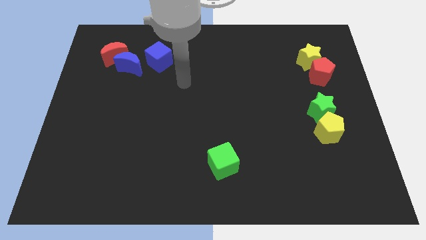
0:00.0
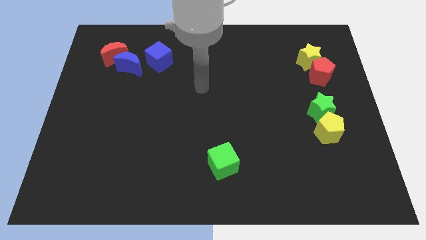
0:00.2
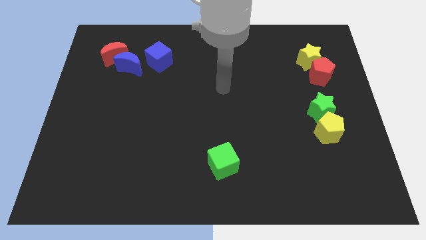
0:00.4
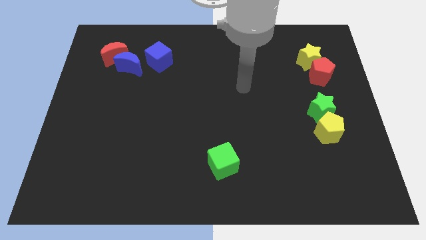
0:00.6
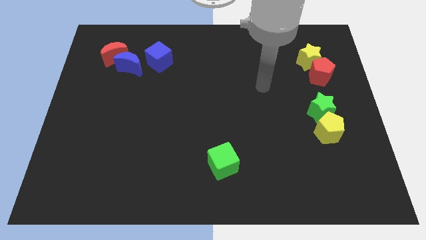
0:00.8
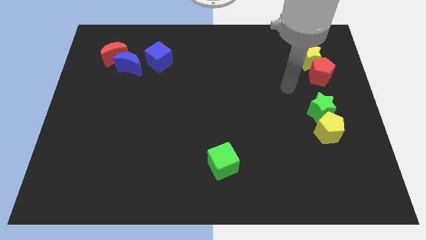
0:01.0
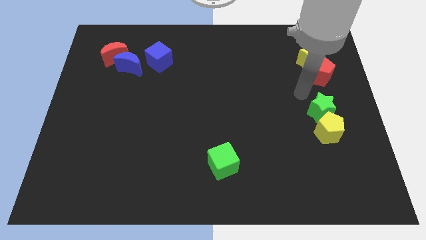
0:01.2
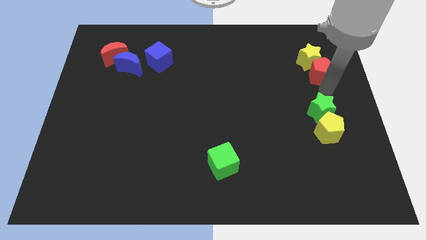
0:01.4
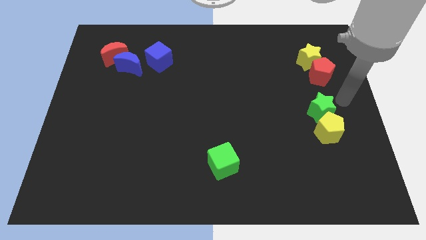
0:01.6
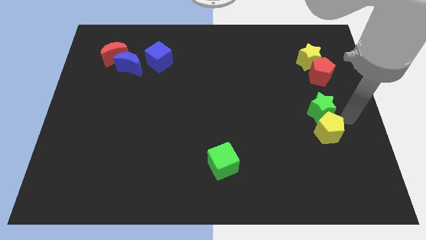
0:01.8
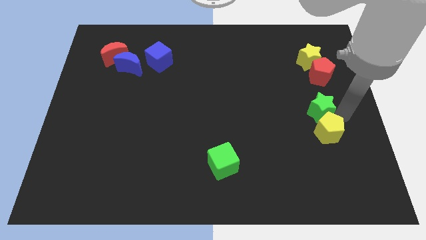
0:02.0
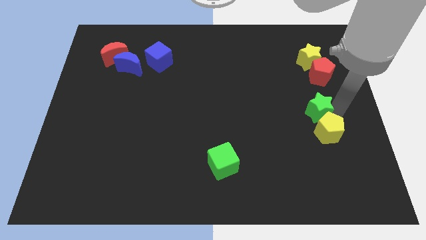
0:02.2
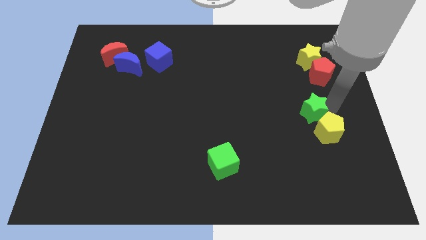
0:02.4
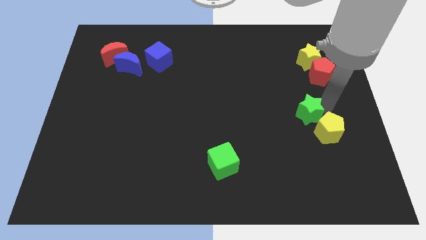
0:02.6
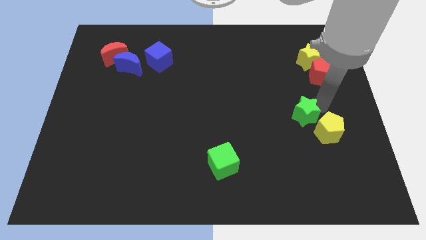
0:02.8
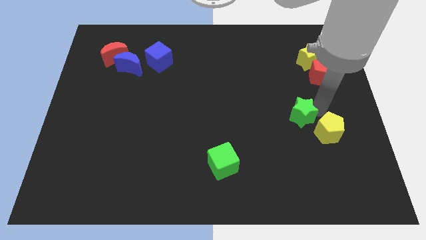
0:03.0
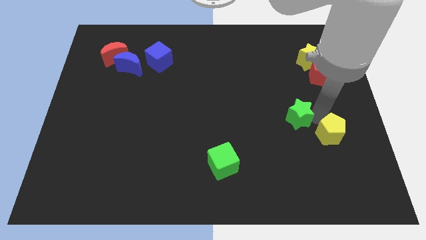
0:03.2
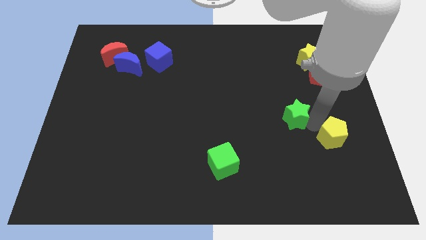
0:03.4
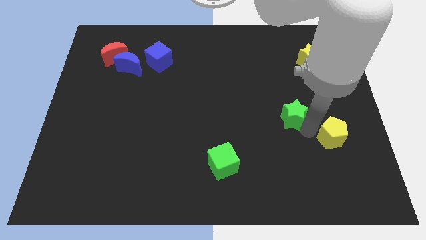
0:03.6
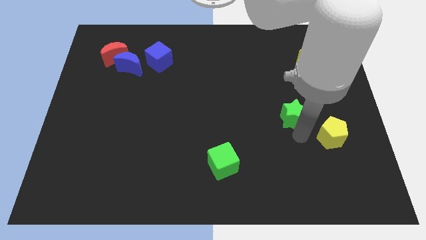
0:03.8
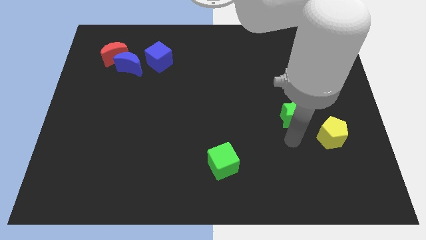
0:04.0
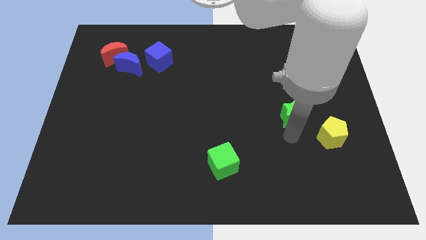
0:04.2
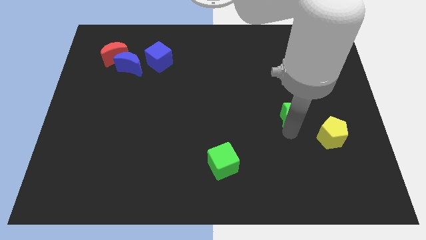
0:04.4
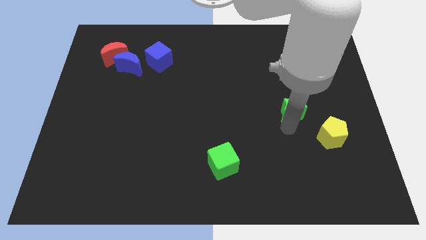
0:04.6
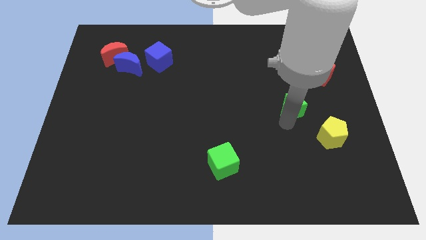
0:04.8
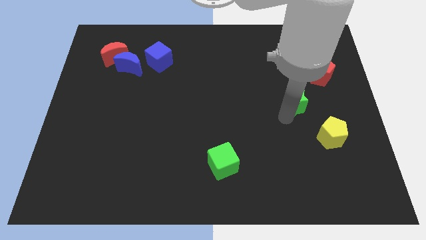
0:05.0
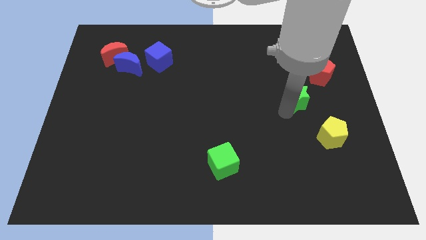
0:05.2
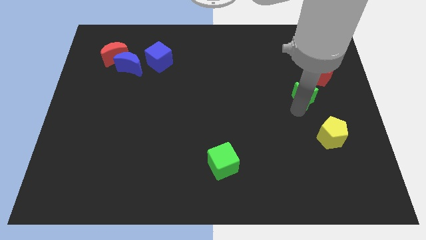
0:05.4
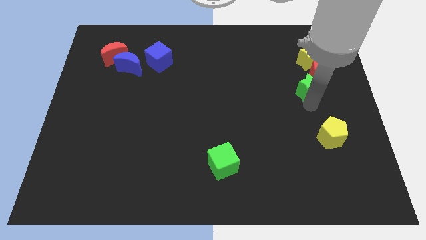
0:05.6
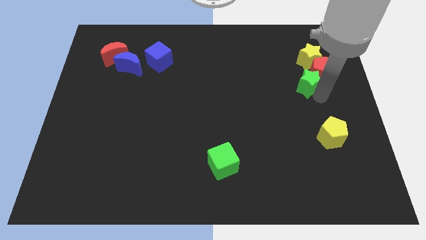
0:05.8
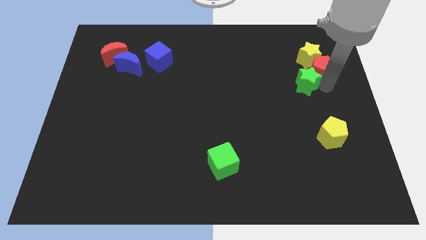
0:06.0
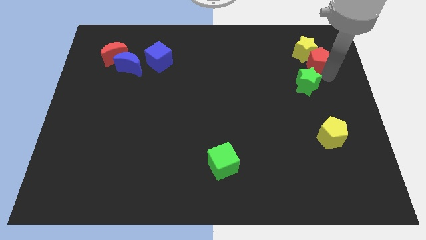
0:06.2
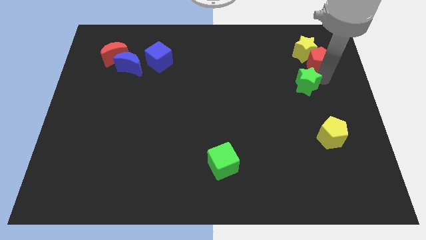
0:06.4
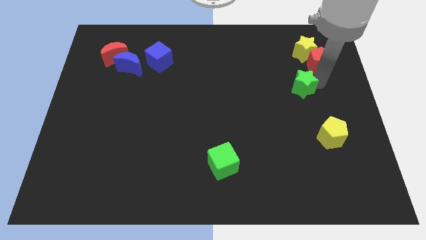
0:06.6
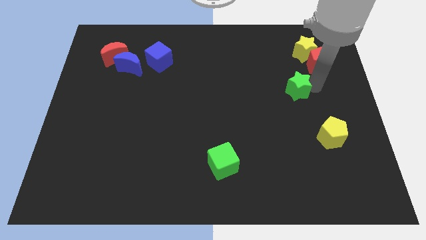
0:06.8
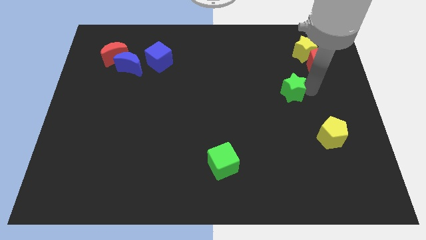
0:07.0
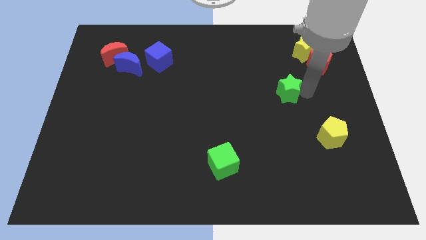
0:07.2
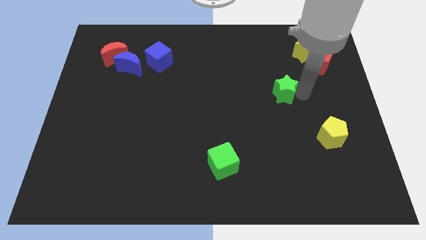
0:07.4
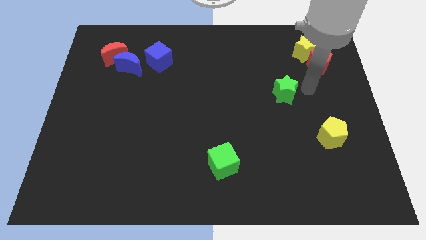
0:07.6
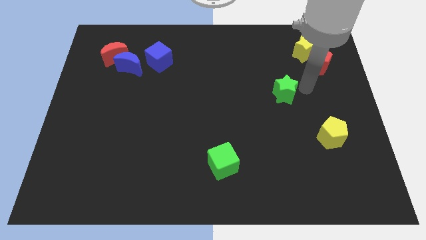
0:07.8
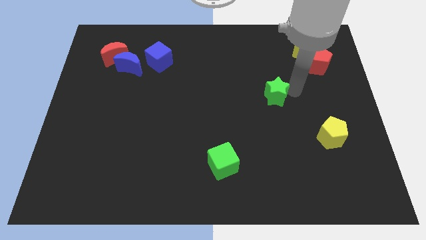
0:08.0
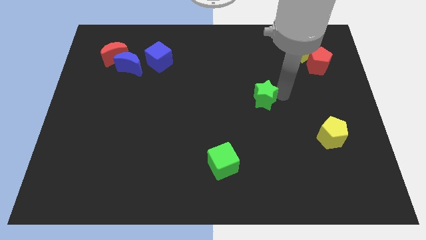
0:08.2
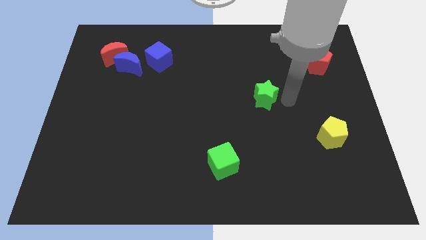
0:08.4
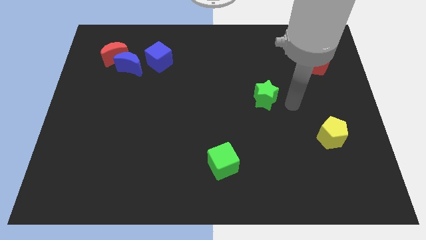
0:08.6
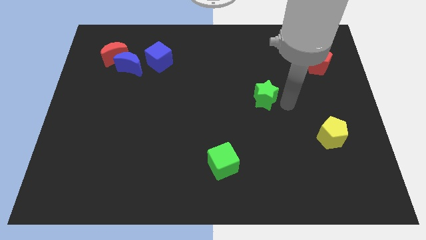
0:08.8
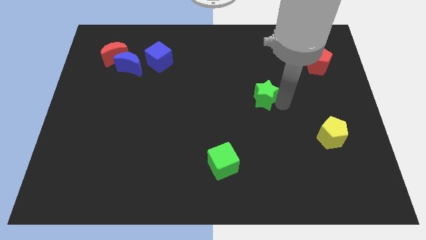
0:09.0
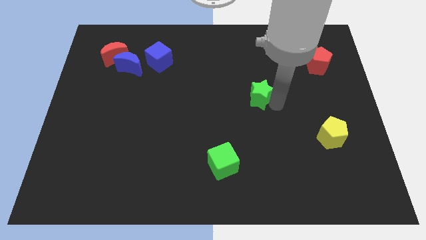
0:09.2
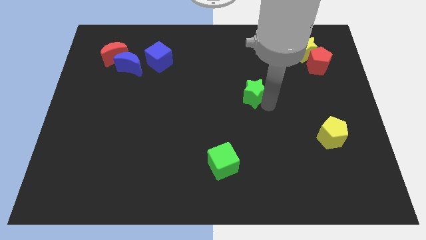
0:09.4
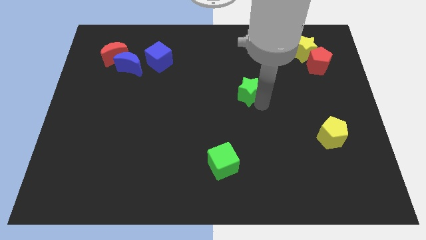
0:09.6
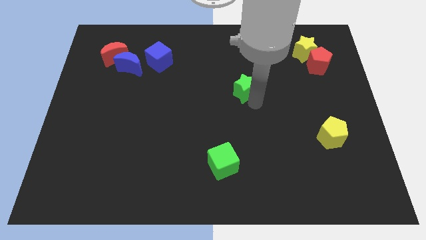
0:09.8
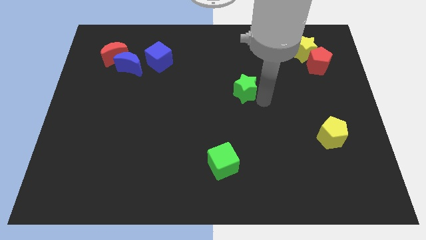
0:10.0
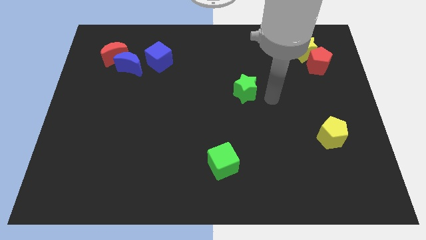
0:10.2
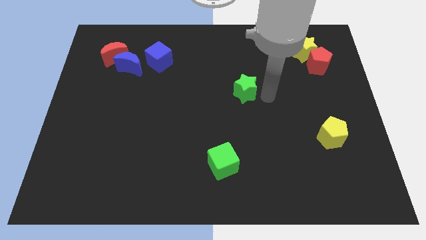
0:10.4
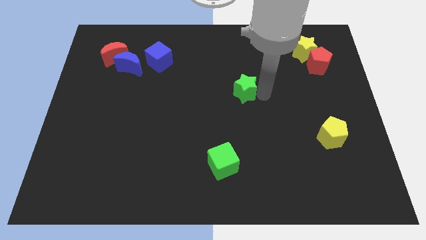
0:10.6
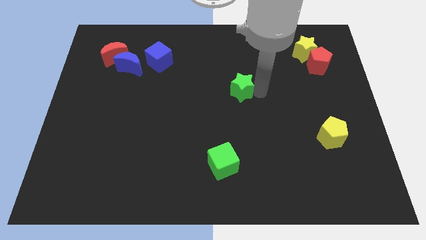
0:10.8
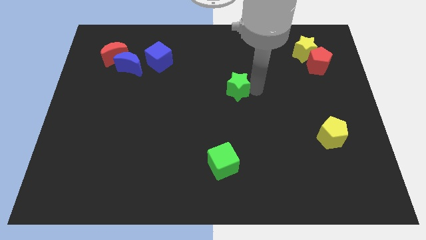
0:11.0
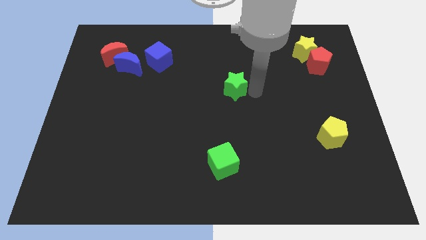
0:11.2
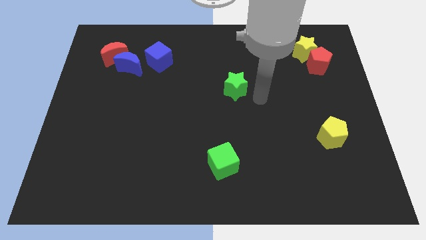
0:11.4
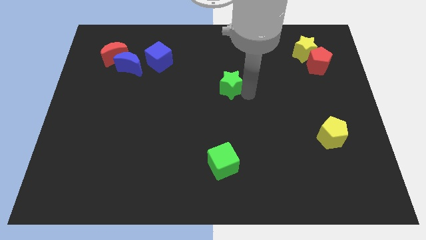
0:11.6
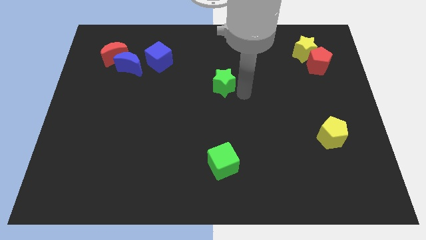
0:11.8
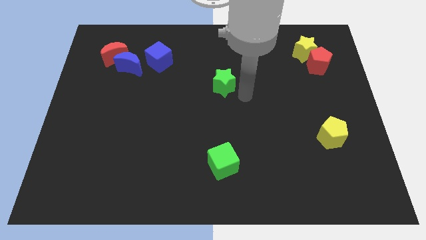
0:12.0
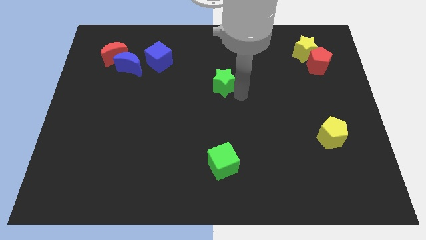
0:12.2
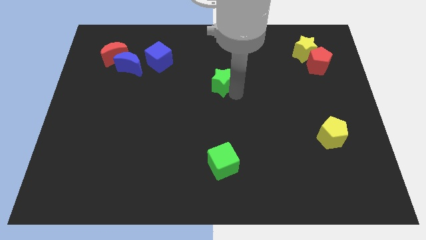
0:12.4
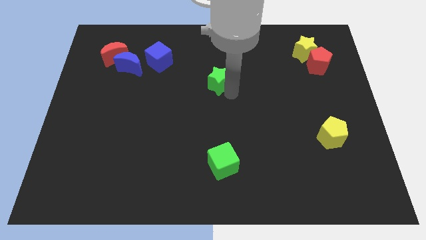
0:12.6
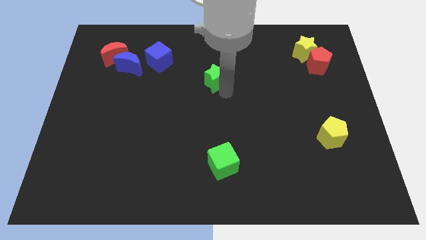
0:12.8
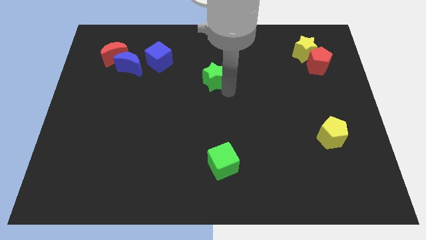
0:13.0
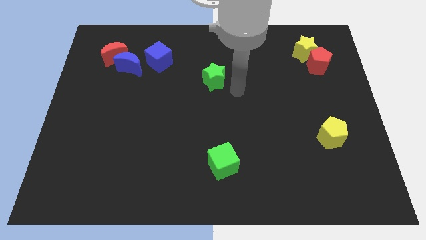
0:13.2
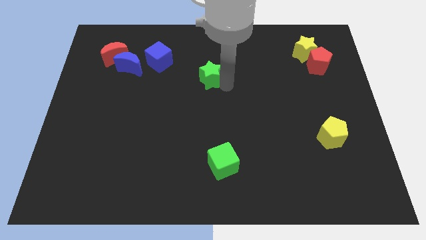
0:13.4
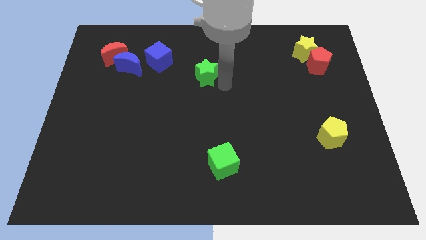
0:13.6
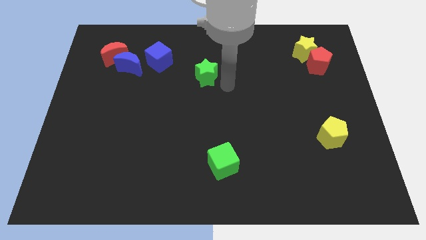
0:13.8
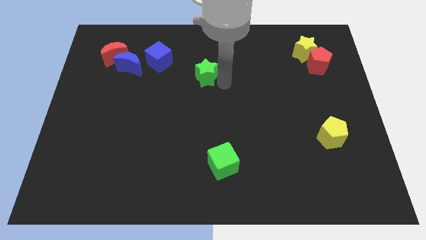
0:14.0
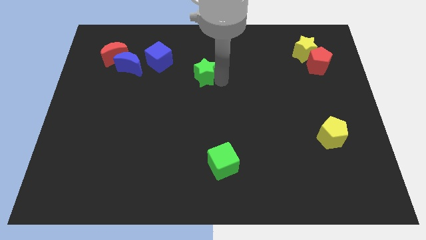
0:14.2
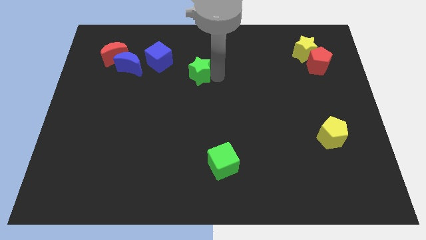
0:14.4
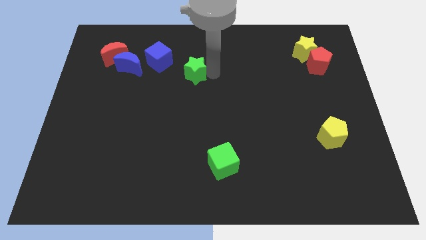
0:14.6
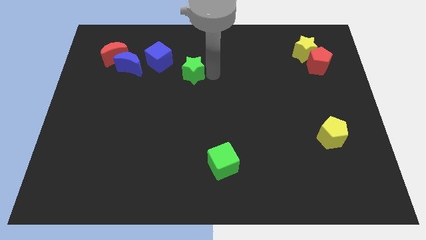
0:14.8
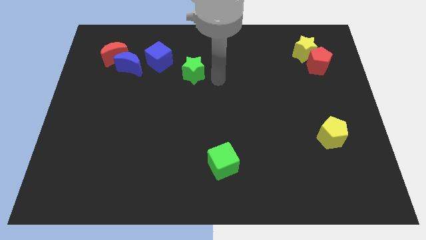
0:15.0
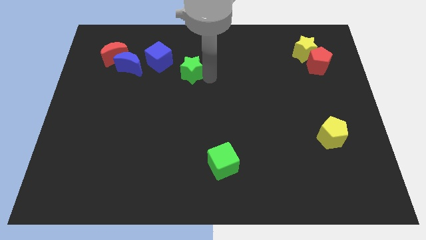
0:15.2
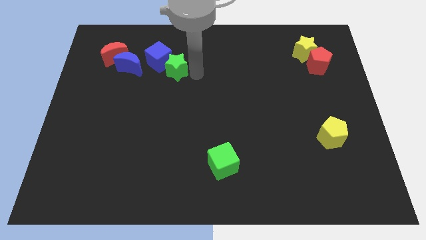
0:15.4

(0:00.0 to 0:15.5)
put the green star towards the blue cube
